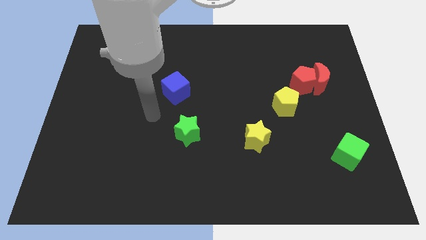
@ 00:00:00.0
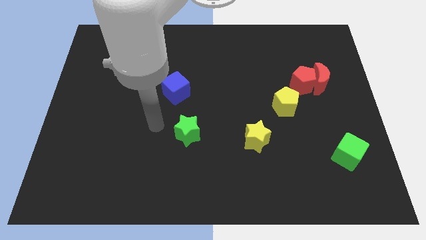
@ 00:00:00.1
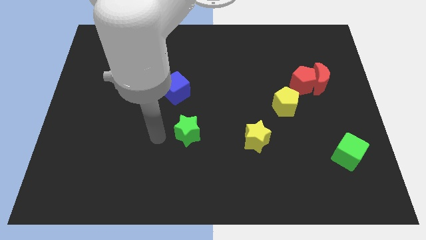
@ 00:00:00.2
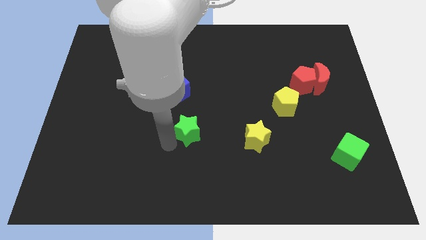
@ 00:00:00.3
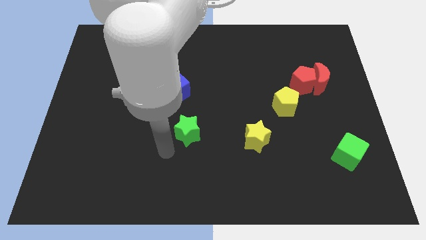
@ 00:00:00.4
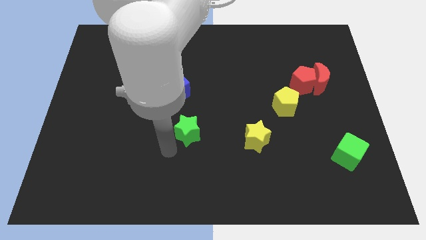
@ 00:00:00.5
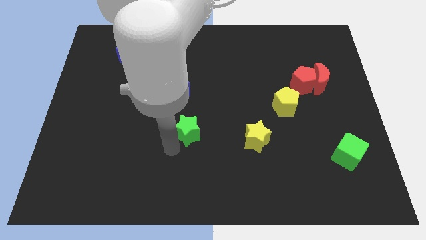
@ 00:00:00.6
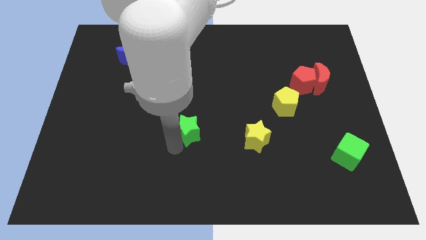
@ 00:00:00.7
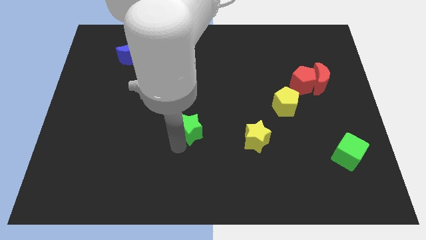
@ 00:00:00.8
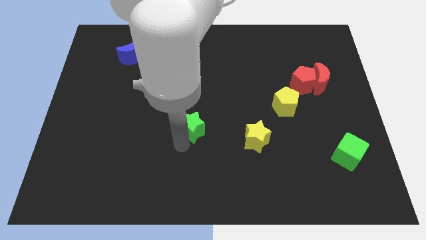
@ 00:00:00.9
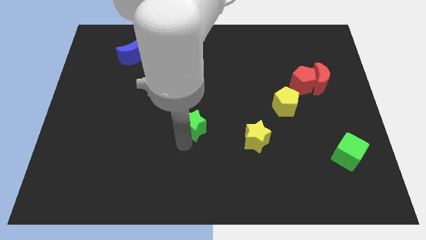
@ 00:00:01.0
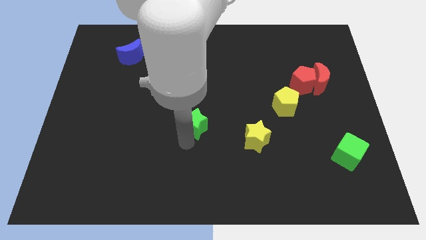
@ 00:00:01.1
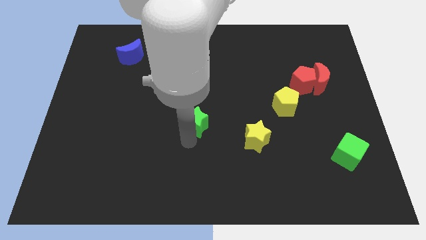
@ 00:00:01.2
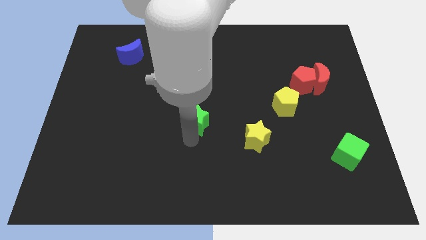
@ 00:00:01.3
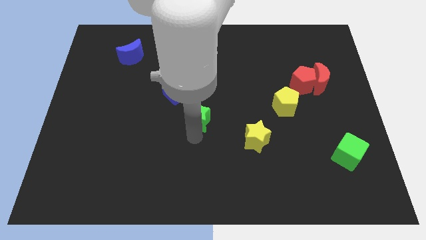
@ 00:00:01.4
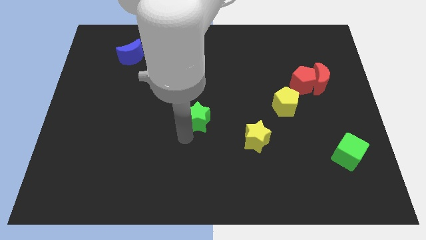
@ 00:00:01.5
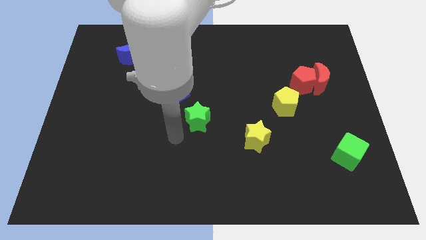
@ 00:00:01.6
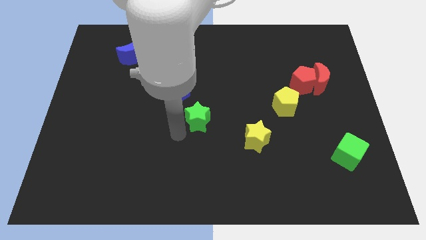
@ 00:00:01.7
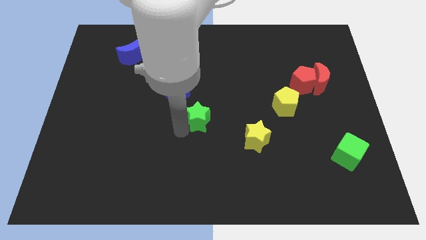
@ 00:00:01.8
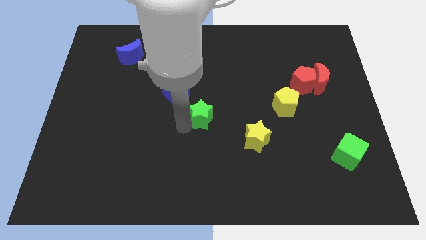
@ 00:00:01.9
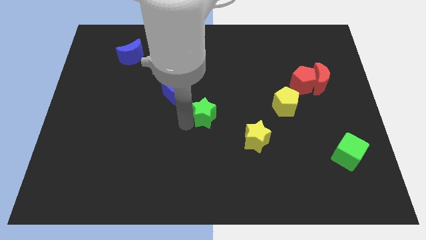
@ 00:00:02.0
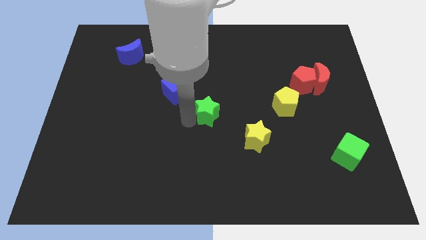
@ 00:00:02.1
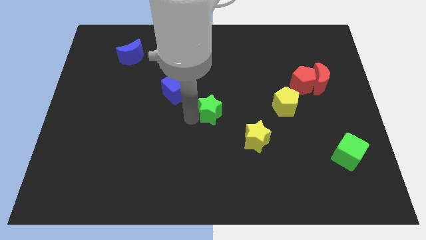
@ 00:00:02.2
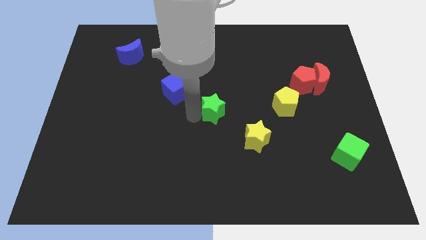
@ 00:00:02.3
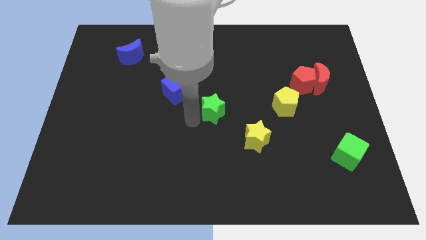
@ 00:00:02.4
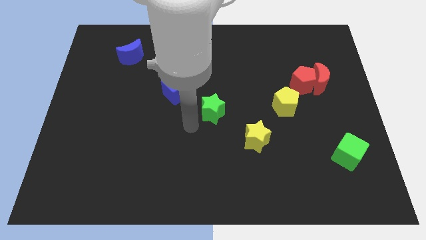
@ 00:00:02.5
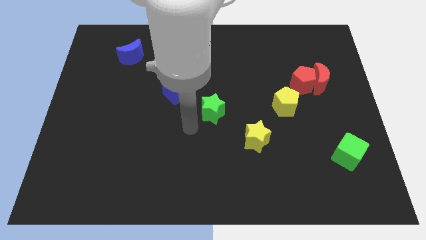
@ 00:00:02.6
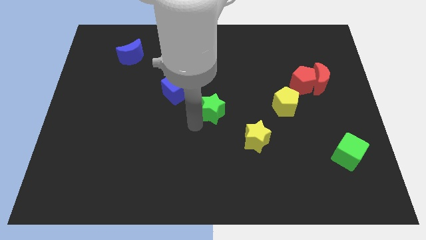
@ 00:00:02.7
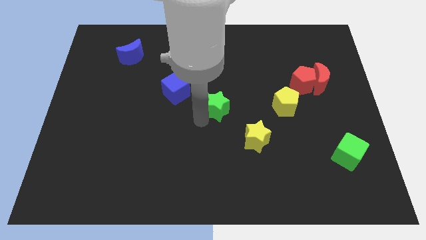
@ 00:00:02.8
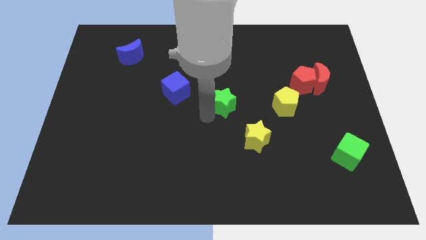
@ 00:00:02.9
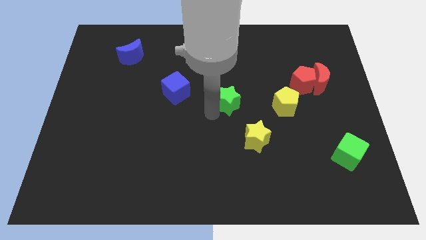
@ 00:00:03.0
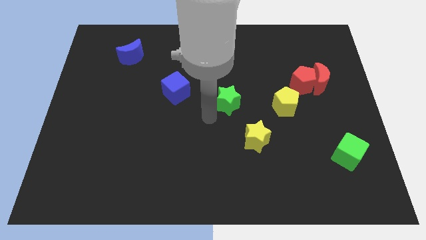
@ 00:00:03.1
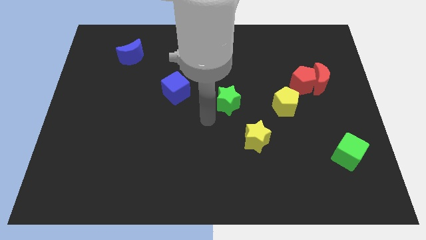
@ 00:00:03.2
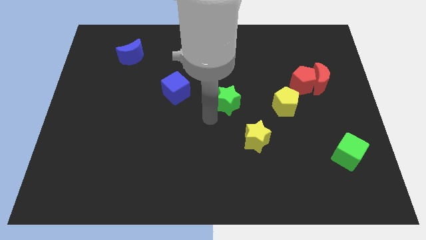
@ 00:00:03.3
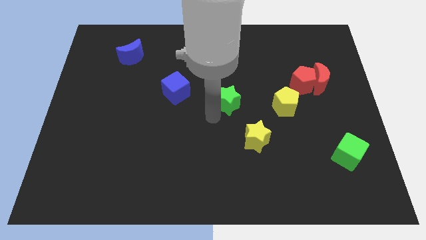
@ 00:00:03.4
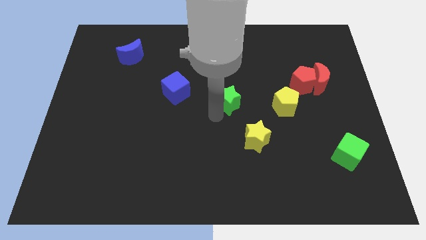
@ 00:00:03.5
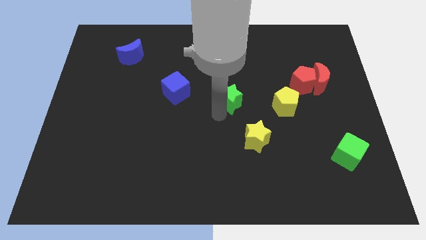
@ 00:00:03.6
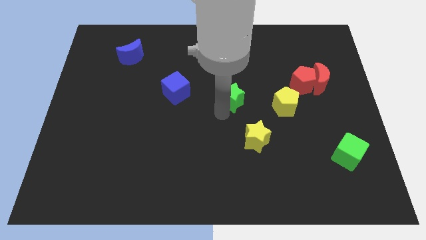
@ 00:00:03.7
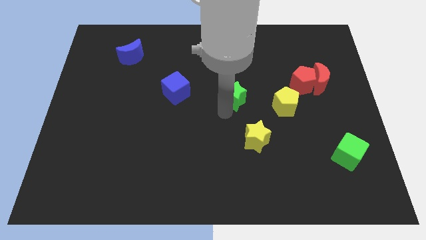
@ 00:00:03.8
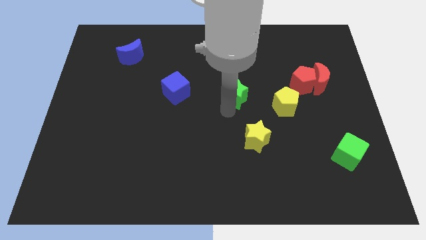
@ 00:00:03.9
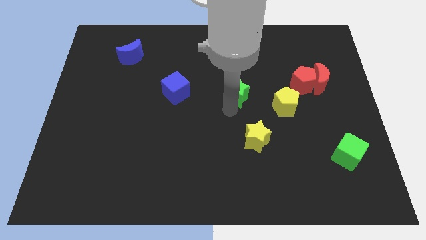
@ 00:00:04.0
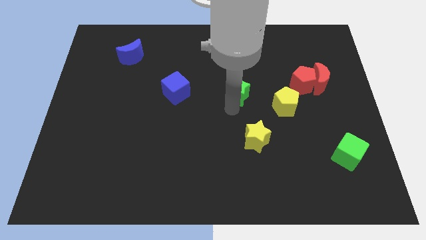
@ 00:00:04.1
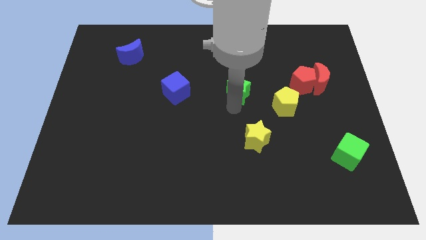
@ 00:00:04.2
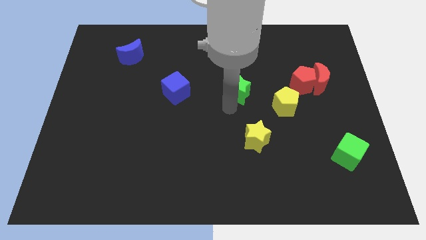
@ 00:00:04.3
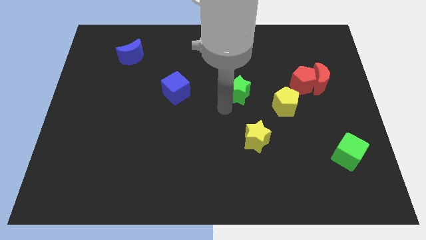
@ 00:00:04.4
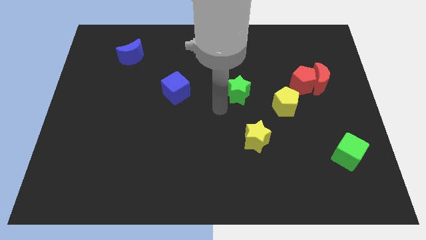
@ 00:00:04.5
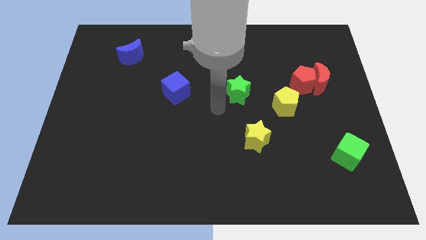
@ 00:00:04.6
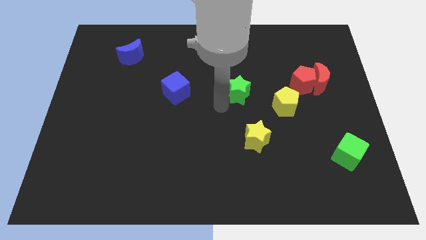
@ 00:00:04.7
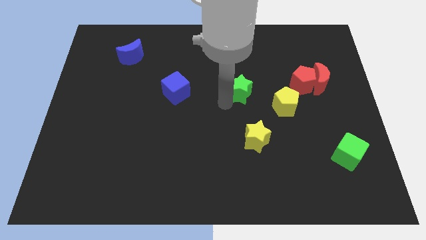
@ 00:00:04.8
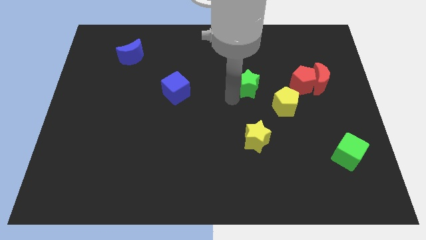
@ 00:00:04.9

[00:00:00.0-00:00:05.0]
move the green star upwards and to the right

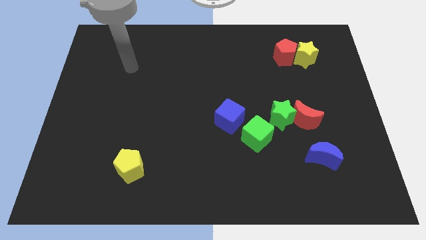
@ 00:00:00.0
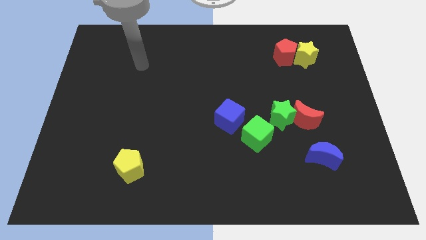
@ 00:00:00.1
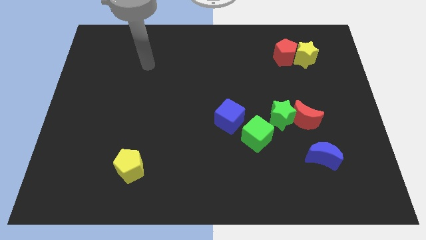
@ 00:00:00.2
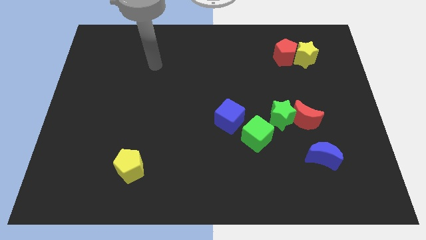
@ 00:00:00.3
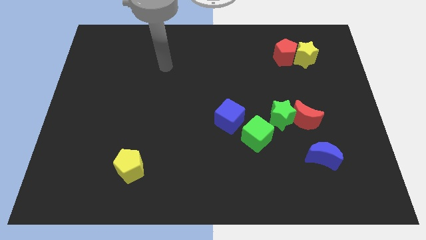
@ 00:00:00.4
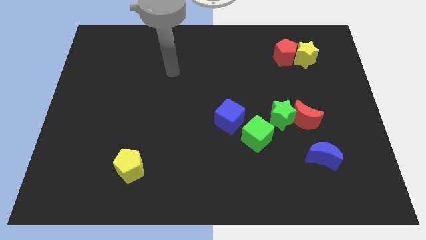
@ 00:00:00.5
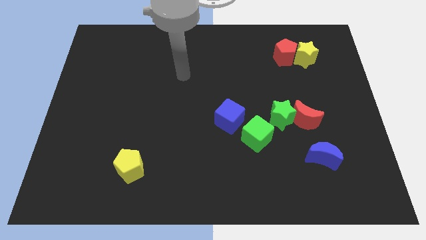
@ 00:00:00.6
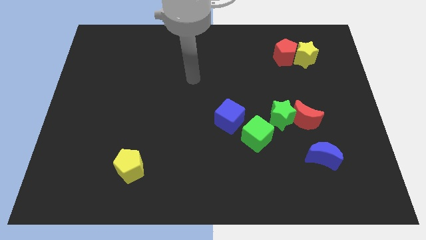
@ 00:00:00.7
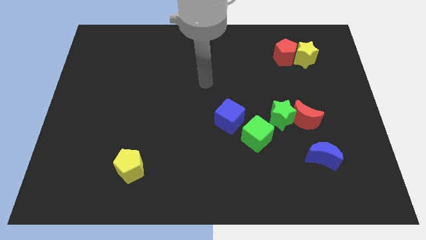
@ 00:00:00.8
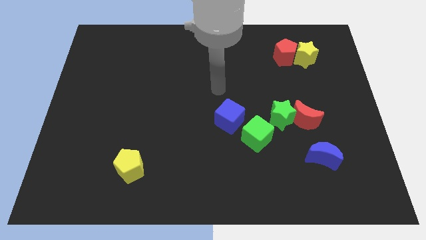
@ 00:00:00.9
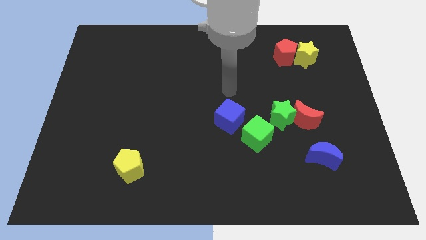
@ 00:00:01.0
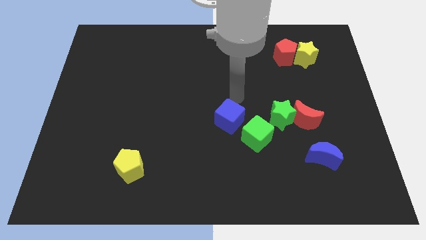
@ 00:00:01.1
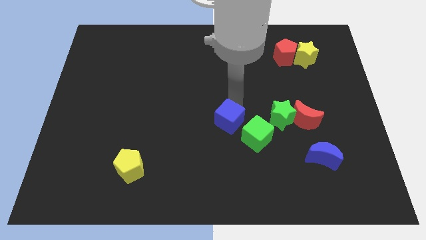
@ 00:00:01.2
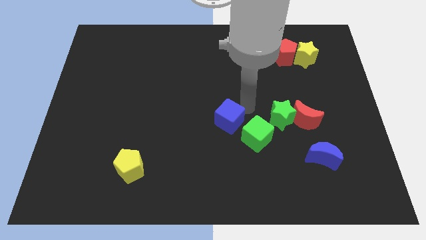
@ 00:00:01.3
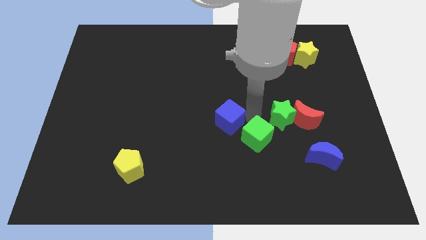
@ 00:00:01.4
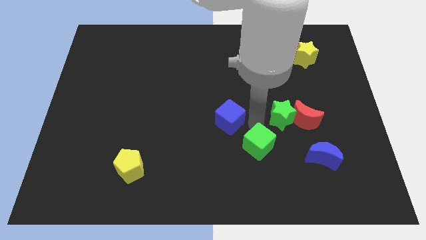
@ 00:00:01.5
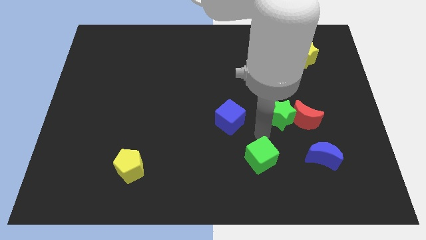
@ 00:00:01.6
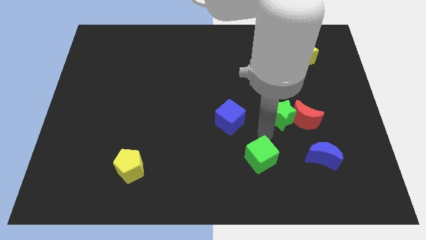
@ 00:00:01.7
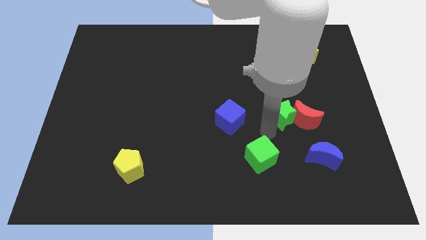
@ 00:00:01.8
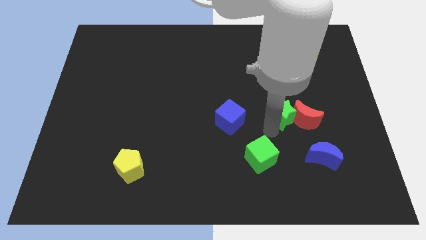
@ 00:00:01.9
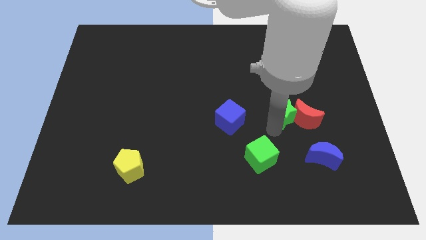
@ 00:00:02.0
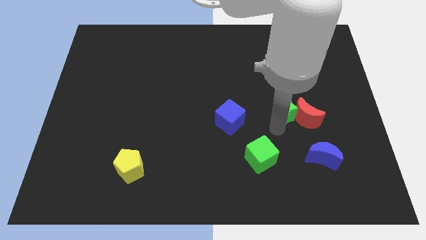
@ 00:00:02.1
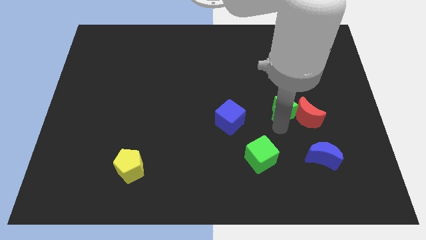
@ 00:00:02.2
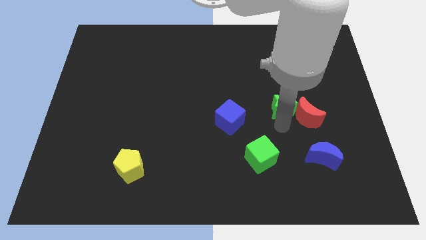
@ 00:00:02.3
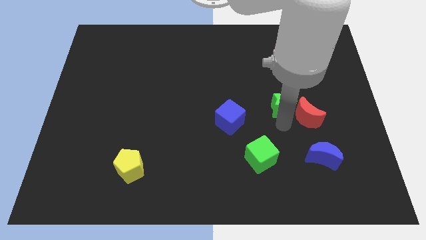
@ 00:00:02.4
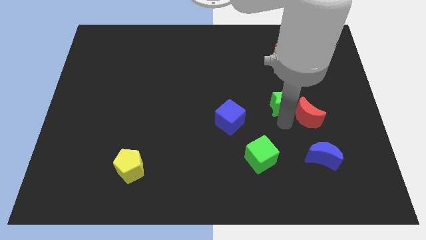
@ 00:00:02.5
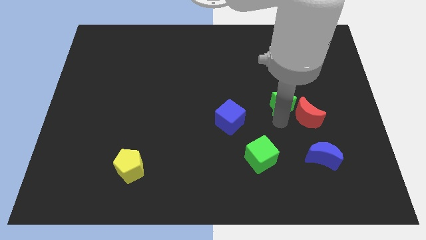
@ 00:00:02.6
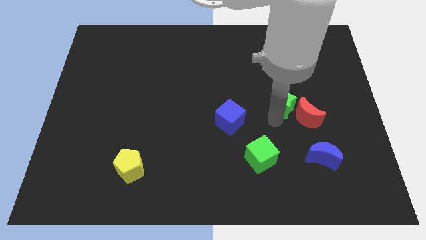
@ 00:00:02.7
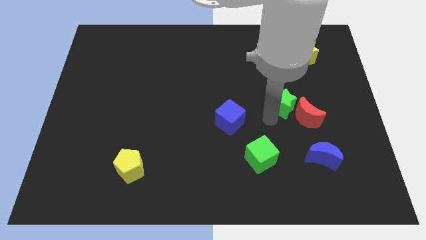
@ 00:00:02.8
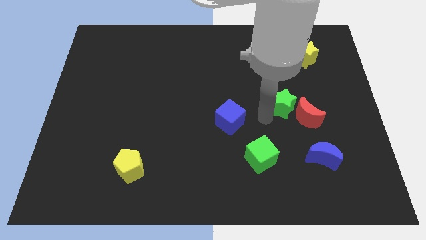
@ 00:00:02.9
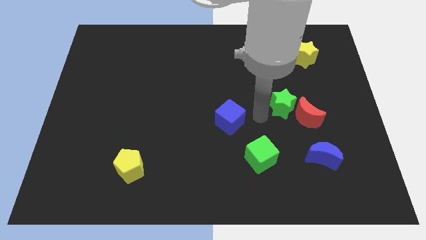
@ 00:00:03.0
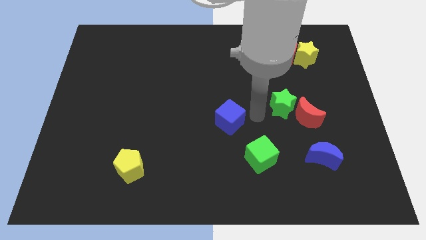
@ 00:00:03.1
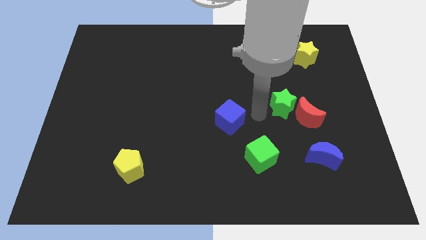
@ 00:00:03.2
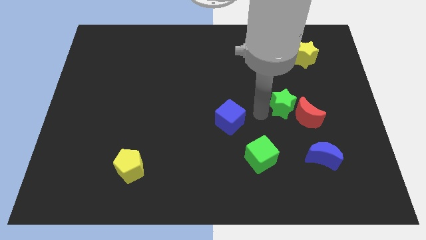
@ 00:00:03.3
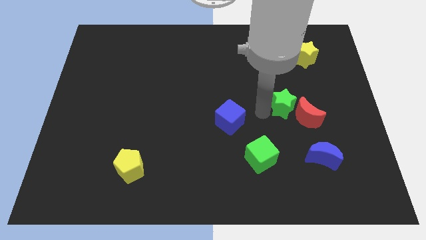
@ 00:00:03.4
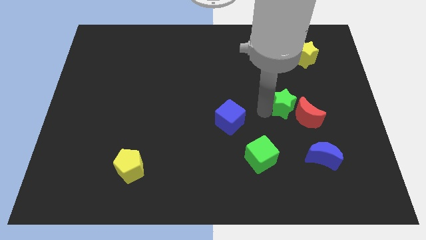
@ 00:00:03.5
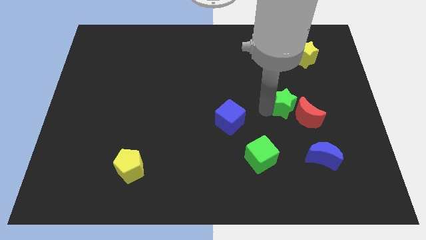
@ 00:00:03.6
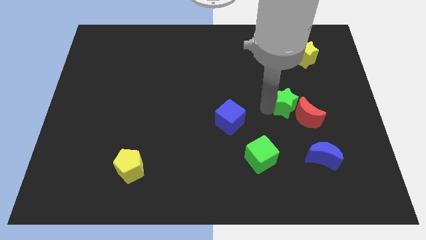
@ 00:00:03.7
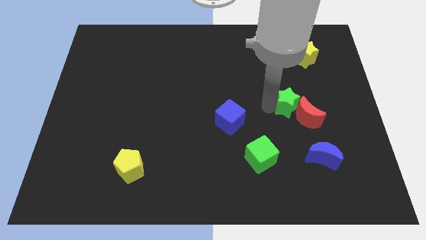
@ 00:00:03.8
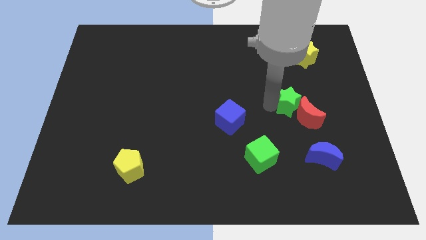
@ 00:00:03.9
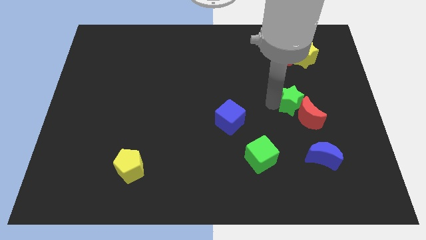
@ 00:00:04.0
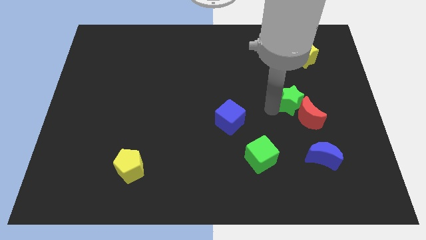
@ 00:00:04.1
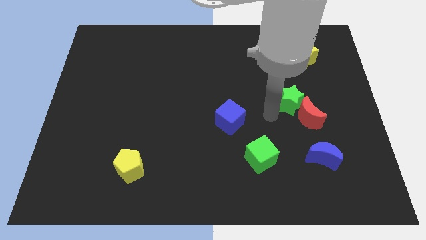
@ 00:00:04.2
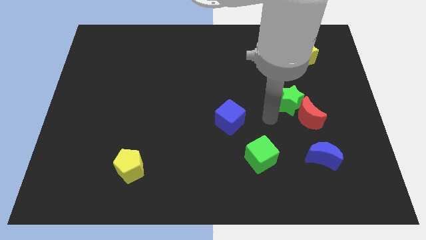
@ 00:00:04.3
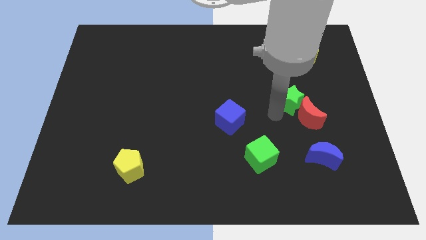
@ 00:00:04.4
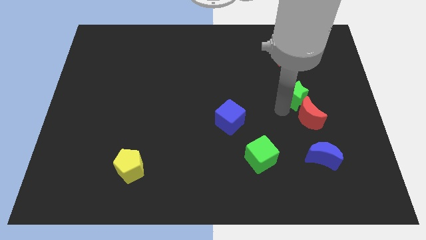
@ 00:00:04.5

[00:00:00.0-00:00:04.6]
slide the green star somewhat upwards and right diagonally
